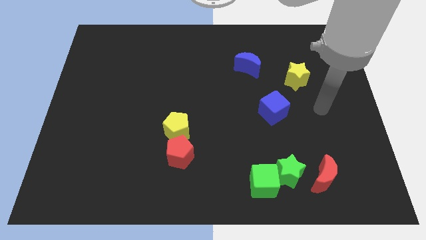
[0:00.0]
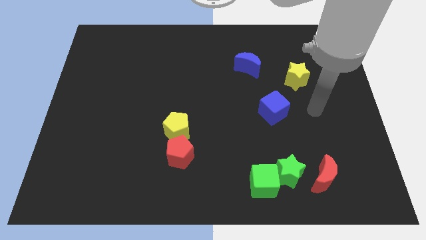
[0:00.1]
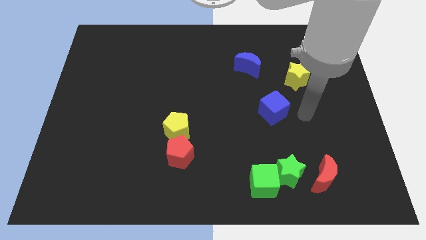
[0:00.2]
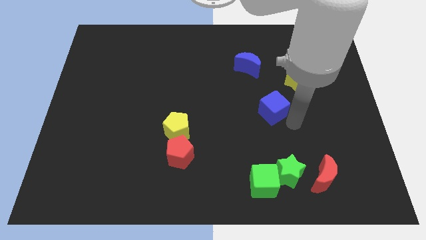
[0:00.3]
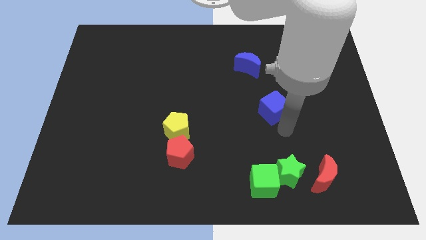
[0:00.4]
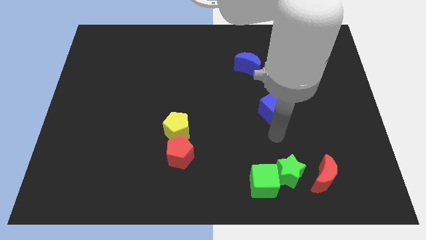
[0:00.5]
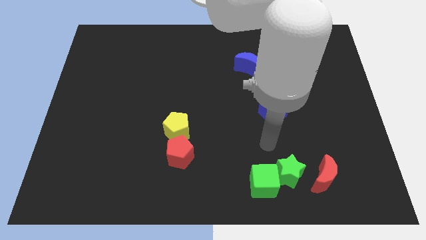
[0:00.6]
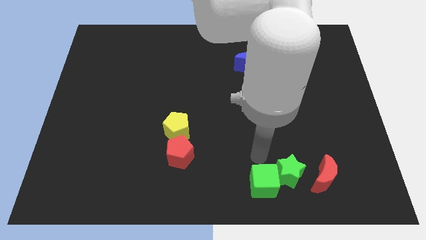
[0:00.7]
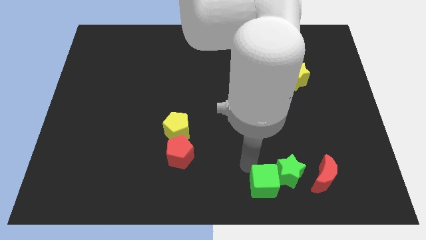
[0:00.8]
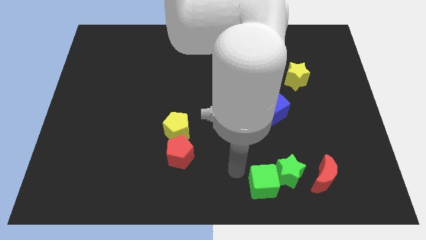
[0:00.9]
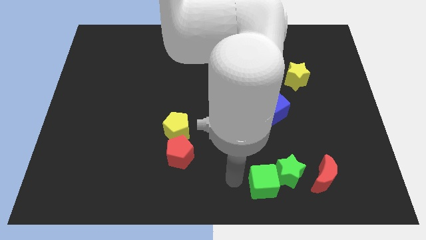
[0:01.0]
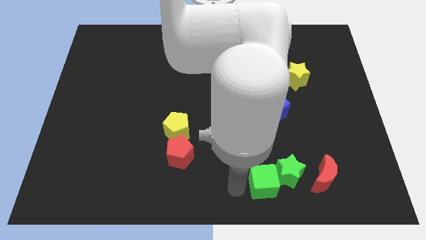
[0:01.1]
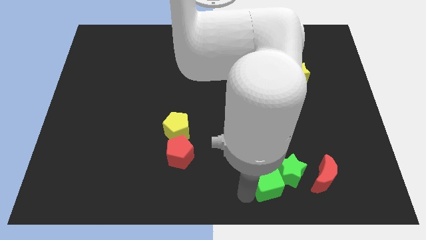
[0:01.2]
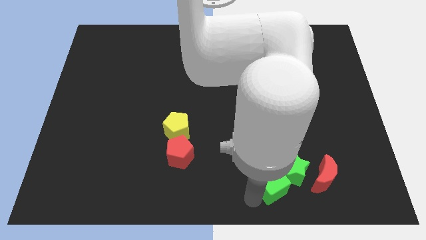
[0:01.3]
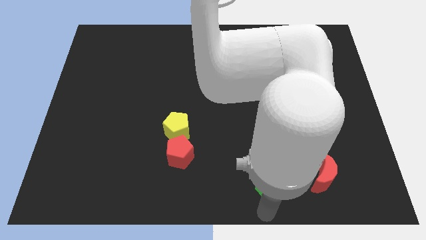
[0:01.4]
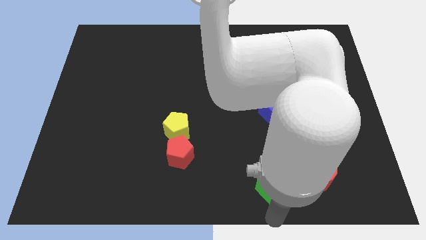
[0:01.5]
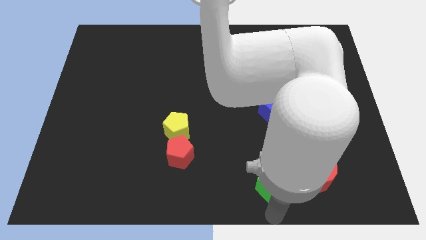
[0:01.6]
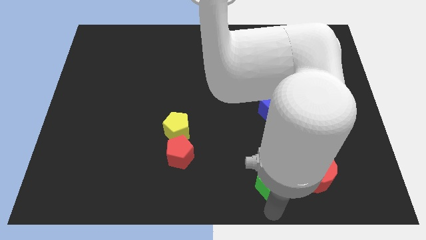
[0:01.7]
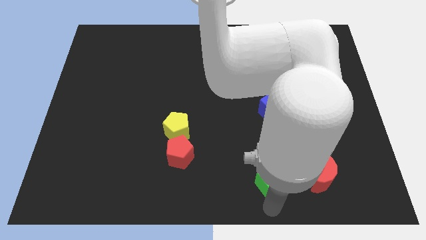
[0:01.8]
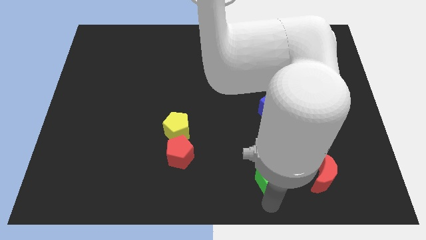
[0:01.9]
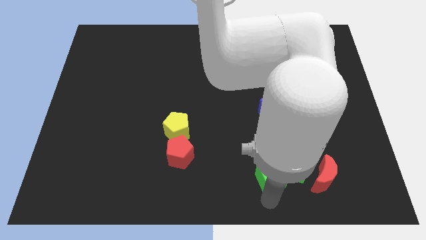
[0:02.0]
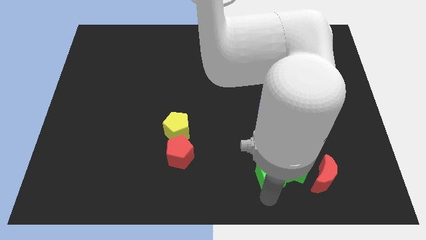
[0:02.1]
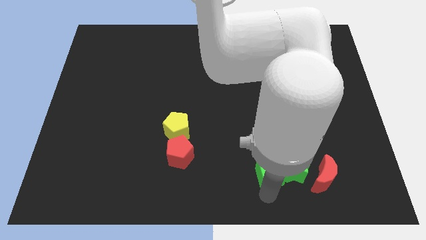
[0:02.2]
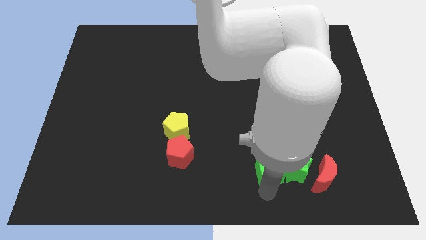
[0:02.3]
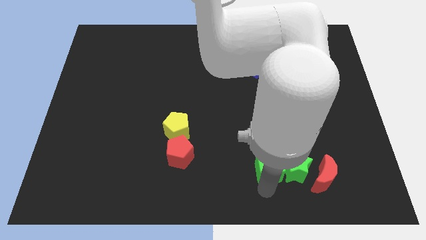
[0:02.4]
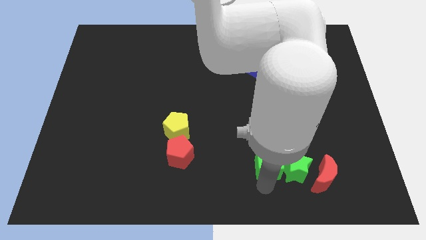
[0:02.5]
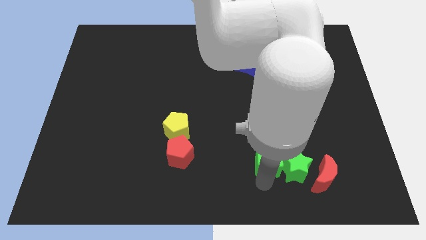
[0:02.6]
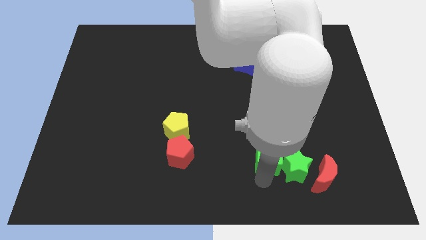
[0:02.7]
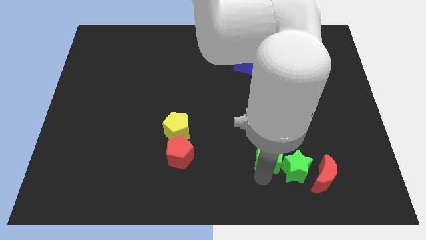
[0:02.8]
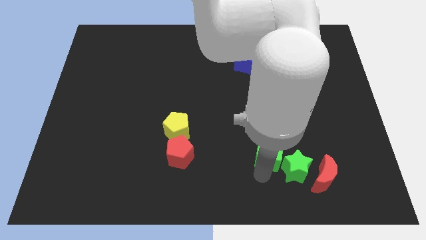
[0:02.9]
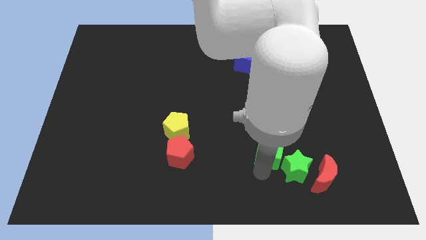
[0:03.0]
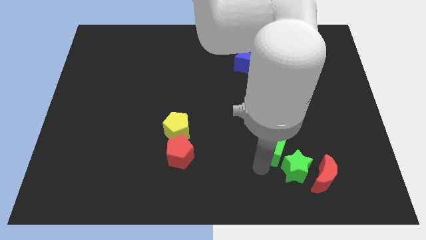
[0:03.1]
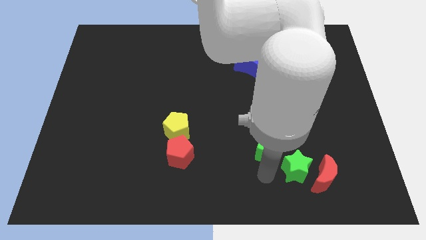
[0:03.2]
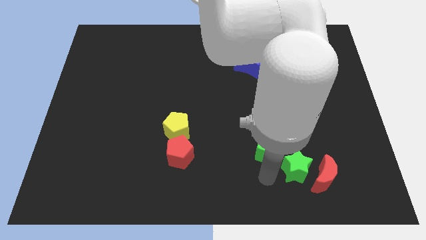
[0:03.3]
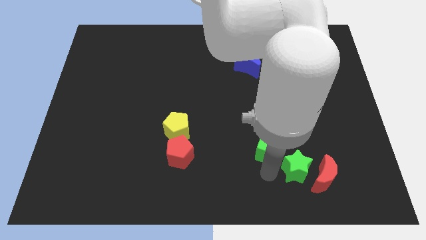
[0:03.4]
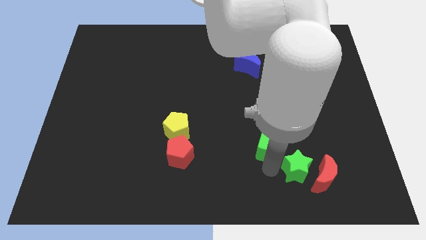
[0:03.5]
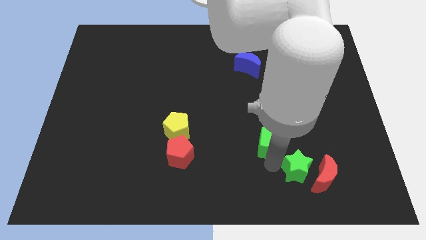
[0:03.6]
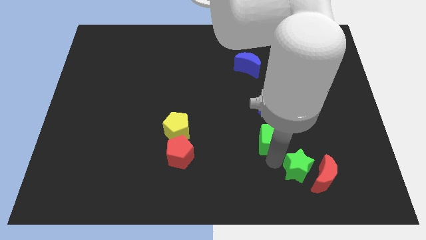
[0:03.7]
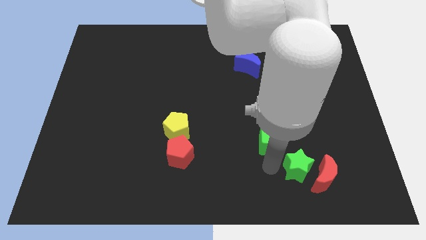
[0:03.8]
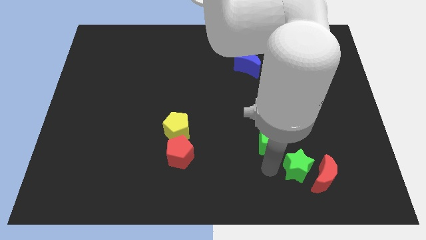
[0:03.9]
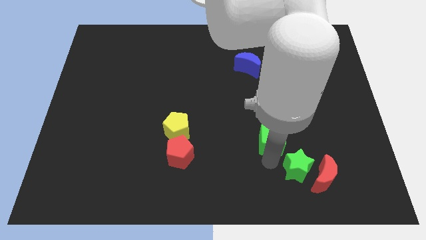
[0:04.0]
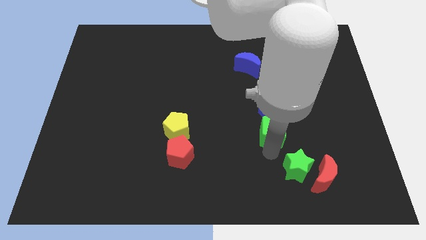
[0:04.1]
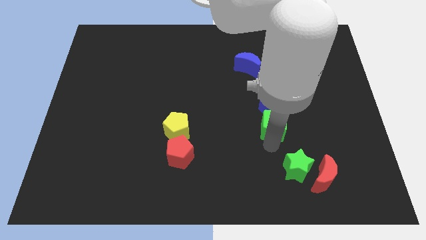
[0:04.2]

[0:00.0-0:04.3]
put the green cube next to the blue cube

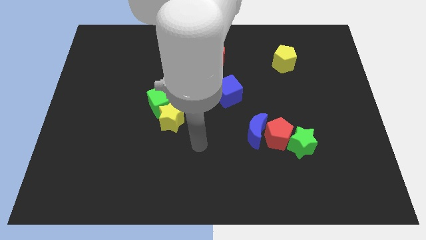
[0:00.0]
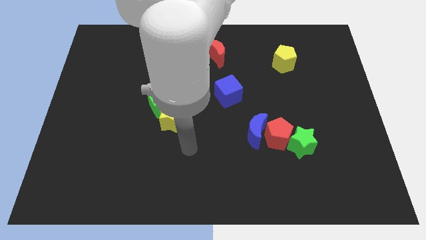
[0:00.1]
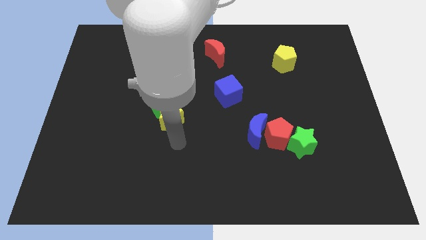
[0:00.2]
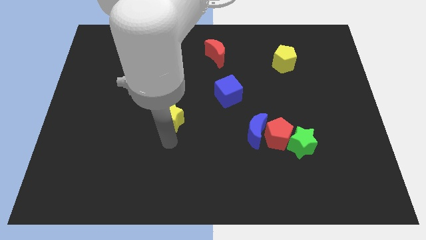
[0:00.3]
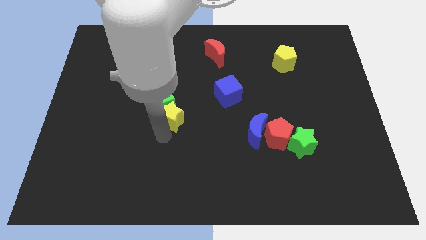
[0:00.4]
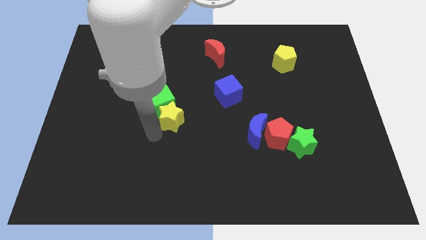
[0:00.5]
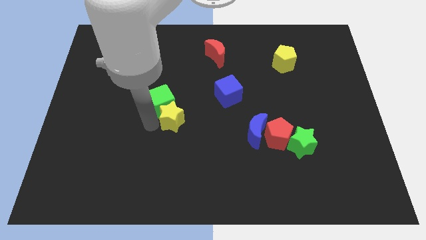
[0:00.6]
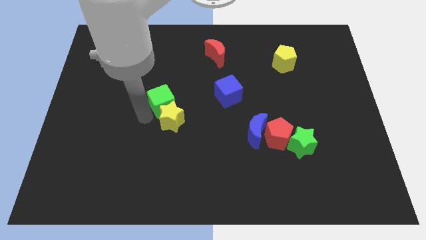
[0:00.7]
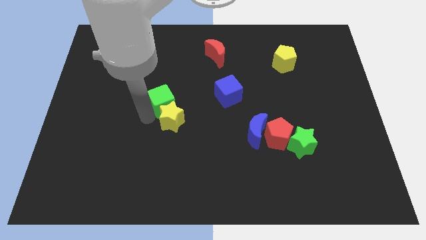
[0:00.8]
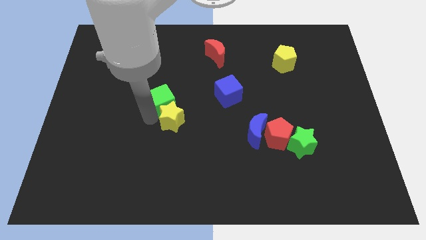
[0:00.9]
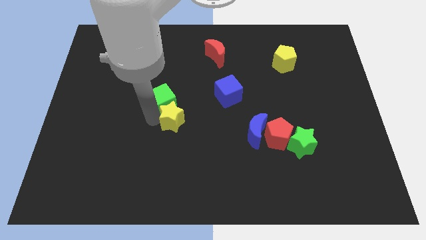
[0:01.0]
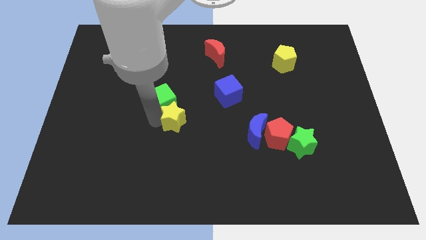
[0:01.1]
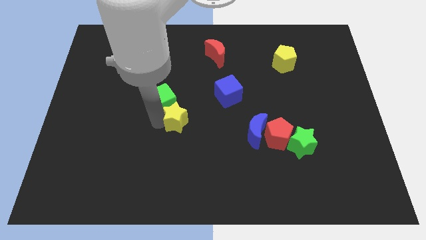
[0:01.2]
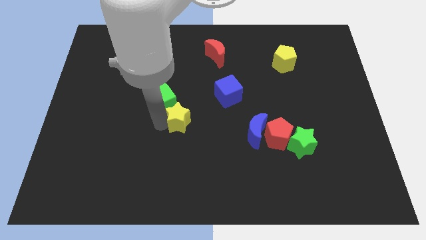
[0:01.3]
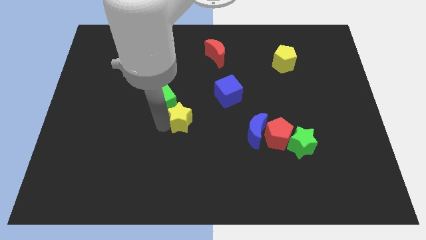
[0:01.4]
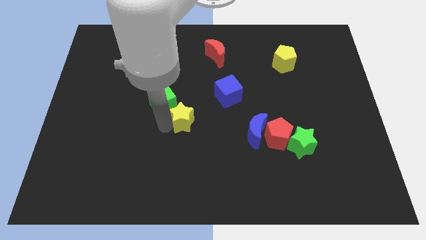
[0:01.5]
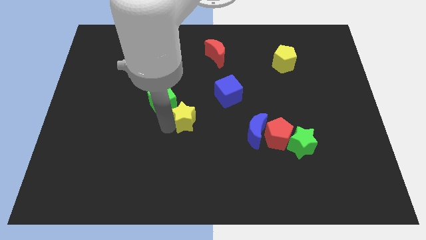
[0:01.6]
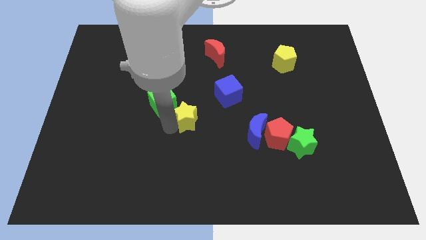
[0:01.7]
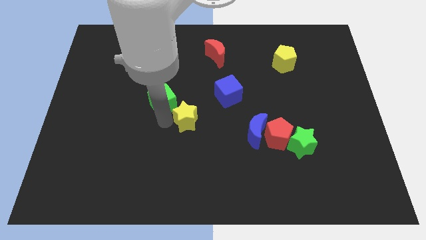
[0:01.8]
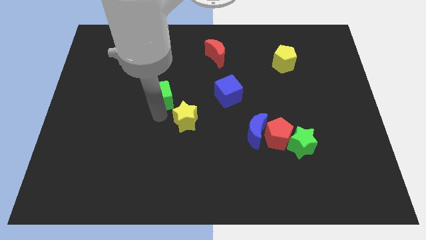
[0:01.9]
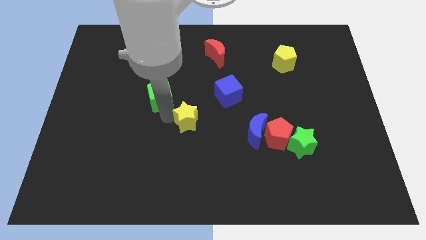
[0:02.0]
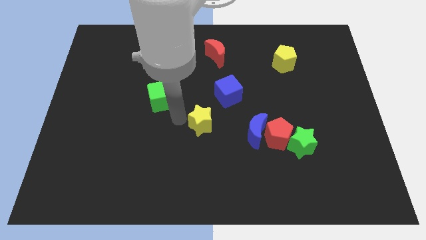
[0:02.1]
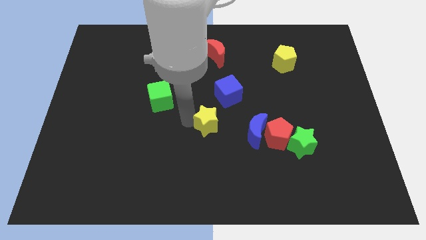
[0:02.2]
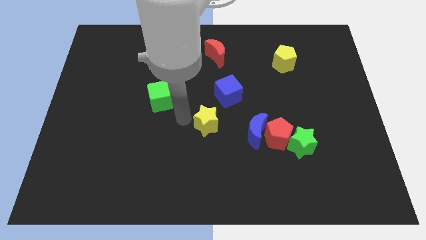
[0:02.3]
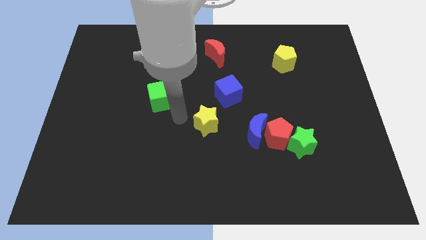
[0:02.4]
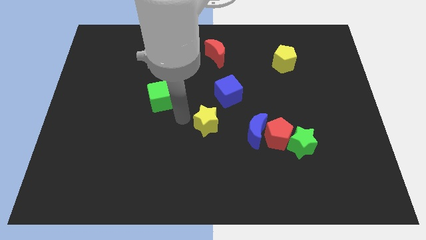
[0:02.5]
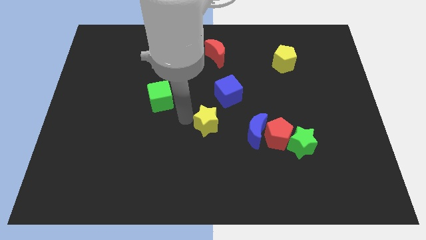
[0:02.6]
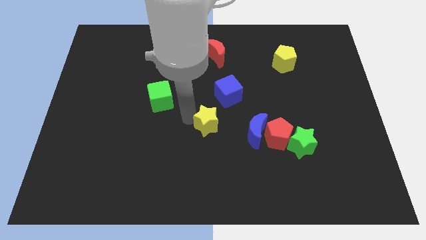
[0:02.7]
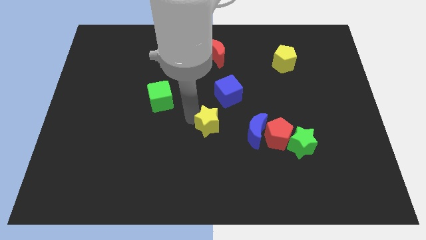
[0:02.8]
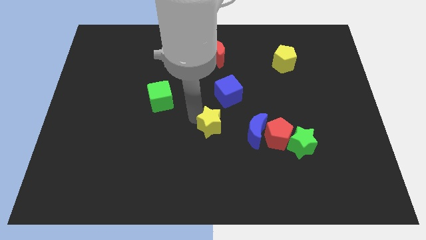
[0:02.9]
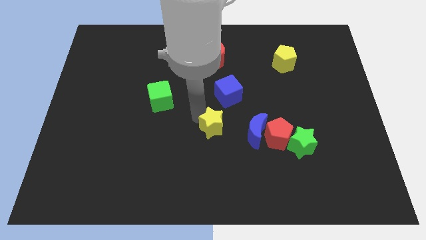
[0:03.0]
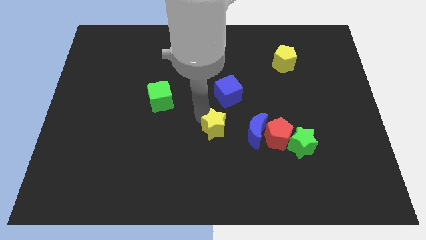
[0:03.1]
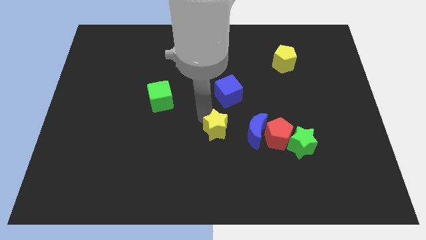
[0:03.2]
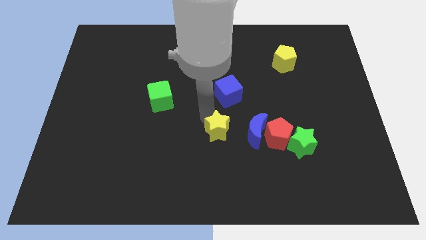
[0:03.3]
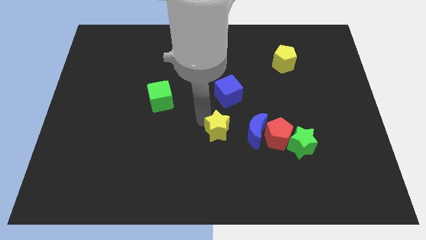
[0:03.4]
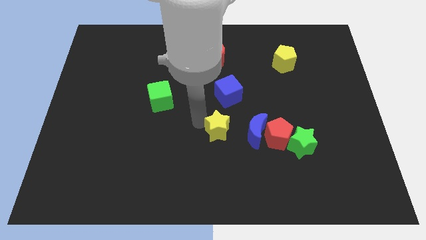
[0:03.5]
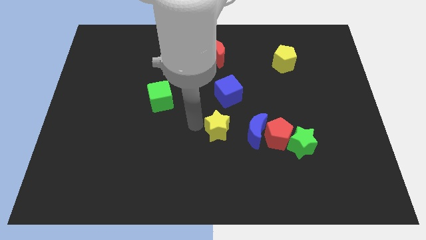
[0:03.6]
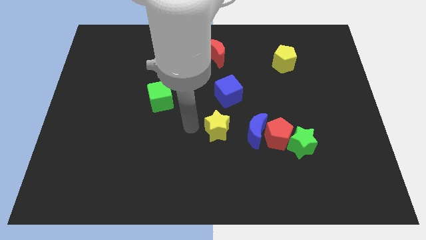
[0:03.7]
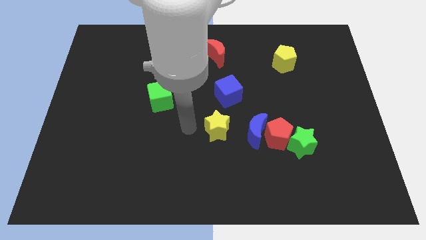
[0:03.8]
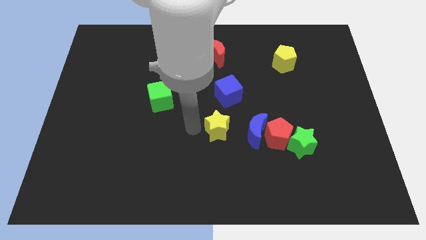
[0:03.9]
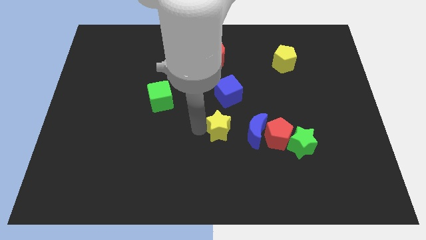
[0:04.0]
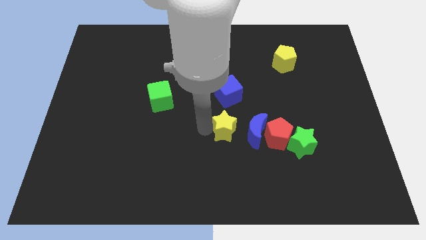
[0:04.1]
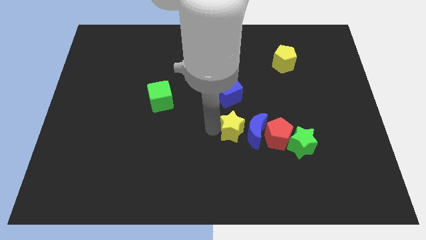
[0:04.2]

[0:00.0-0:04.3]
push the yellow star to the blue moon

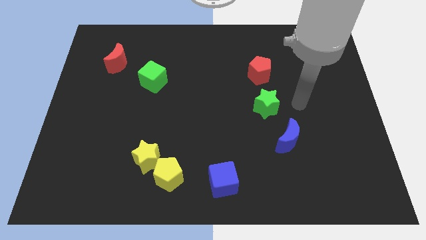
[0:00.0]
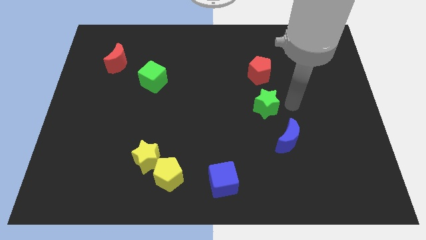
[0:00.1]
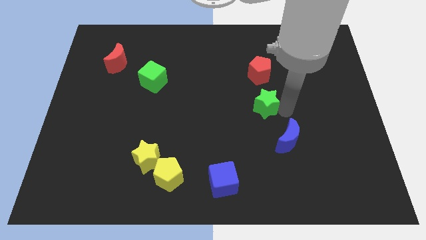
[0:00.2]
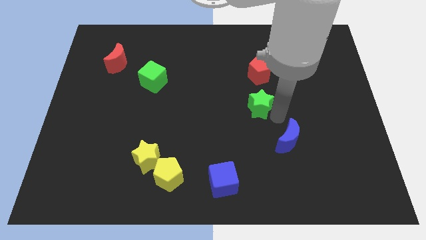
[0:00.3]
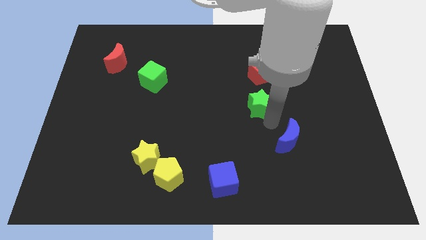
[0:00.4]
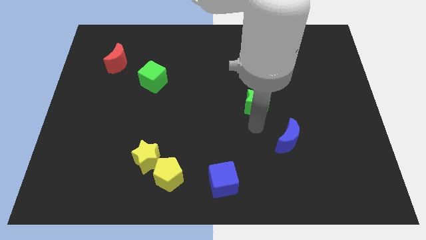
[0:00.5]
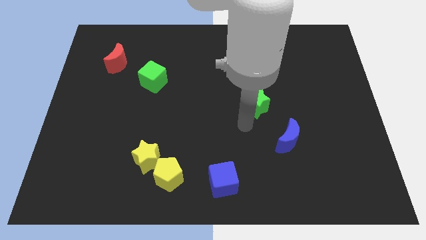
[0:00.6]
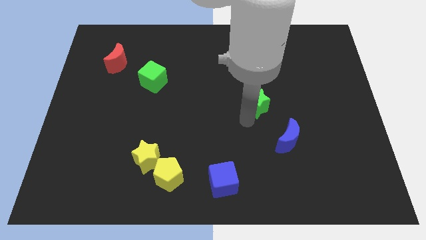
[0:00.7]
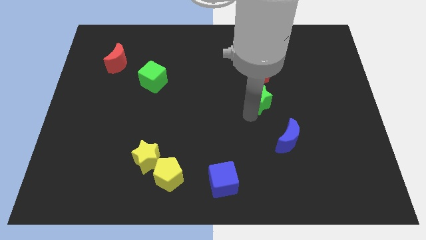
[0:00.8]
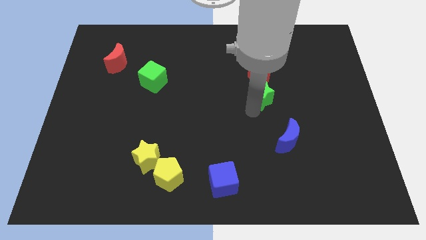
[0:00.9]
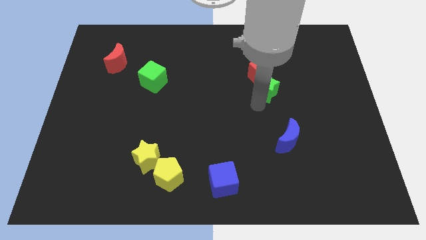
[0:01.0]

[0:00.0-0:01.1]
push the green star to the red pentagon
